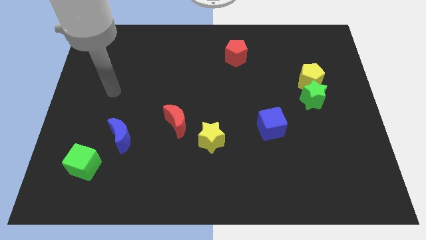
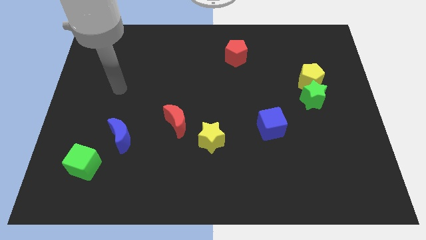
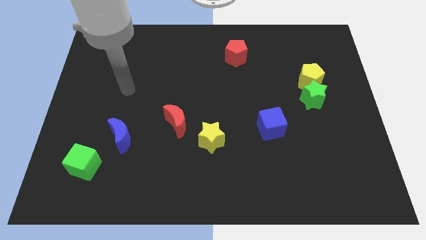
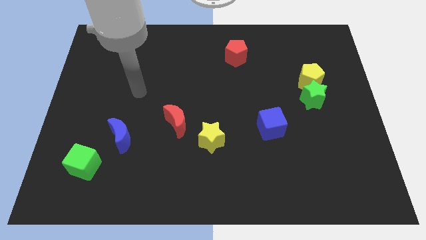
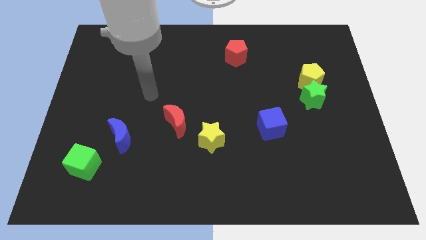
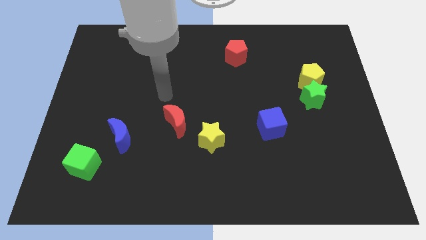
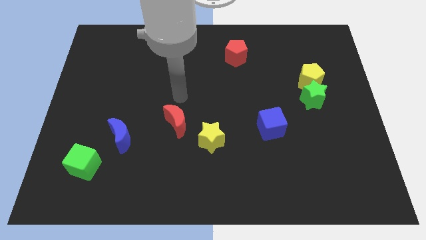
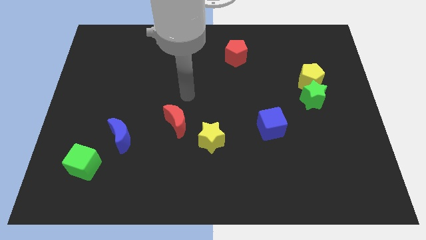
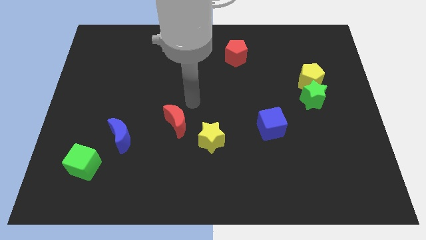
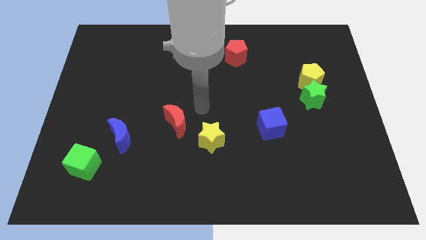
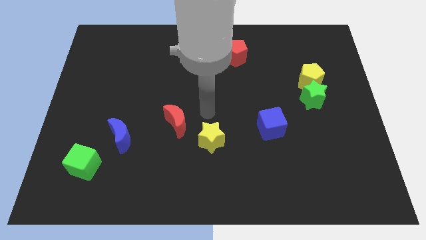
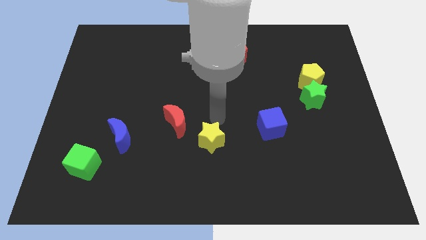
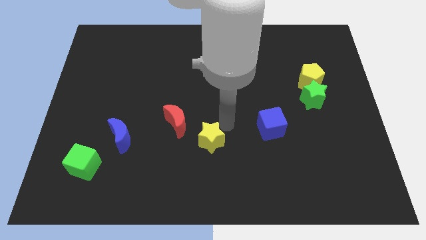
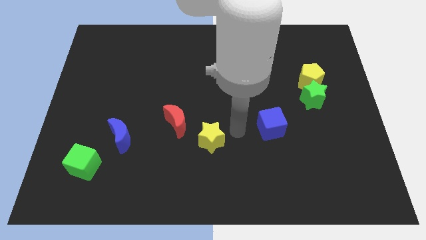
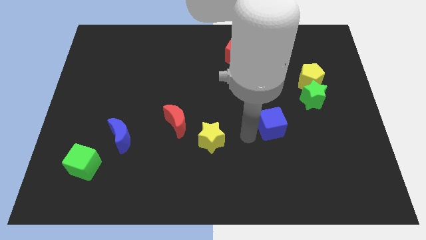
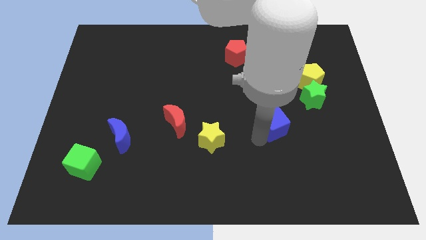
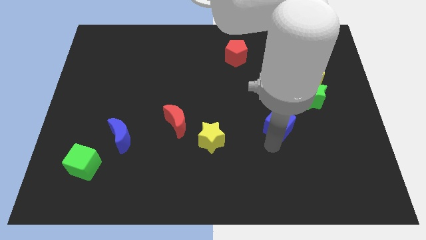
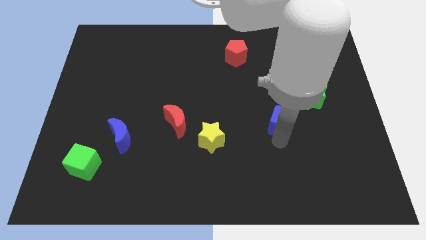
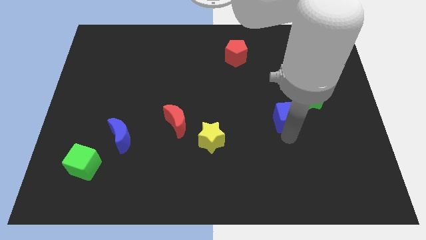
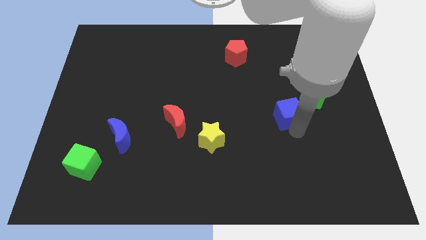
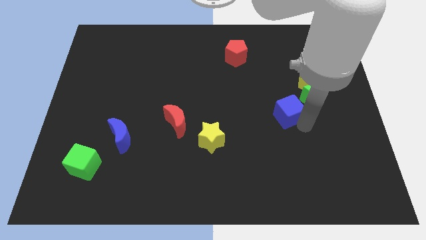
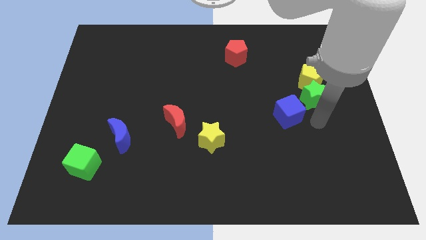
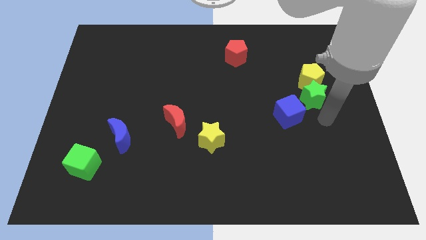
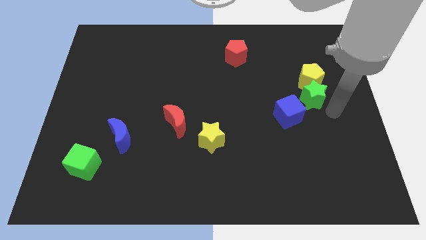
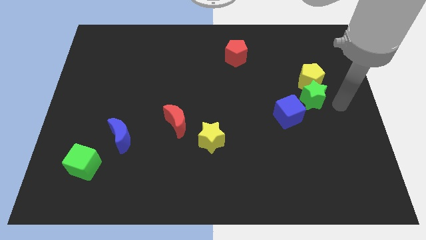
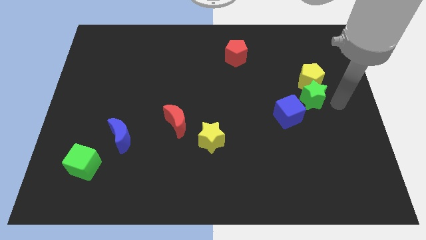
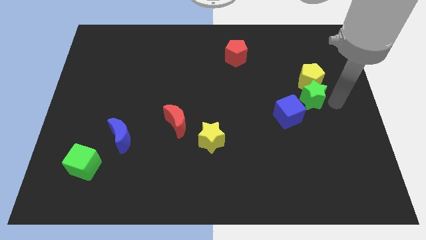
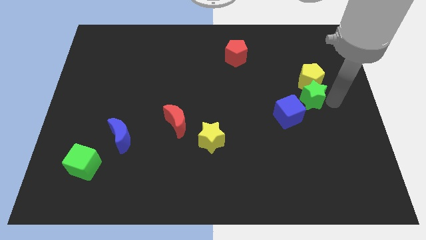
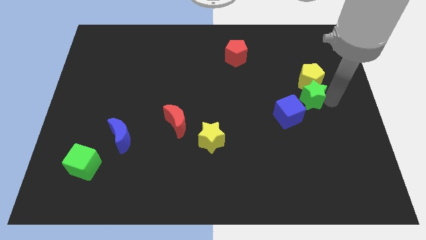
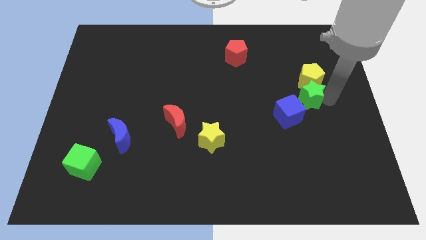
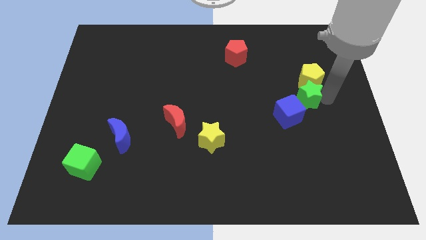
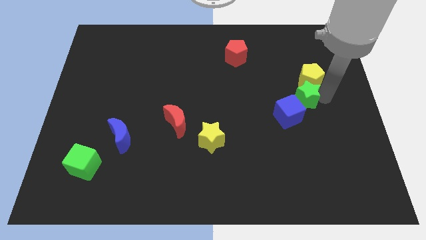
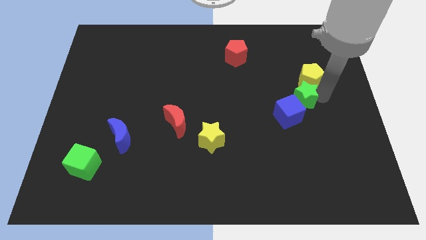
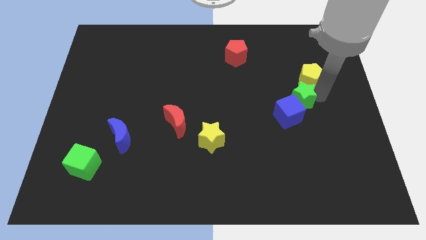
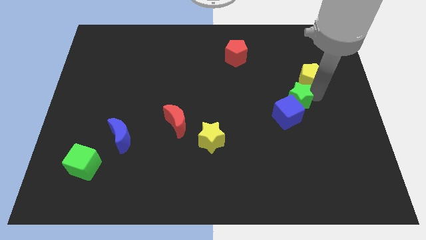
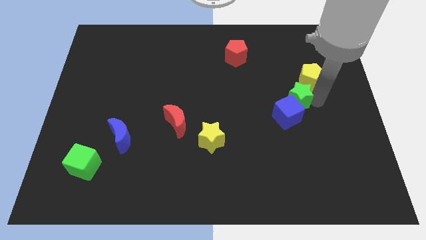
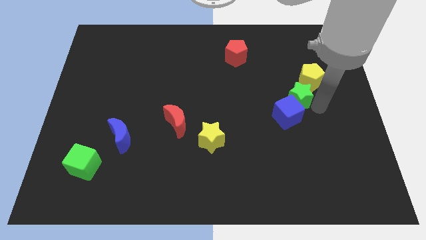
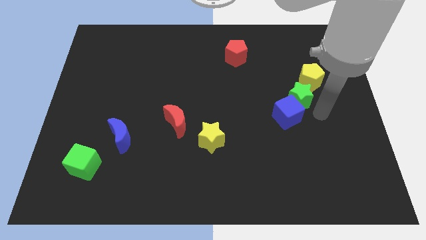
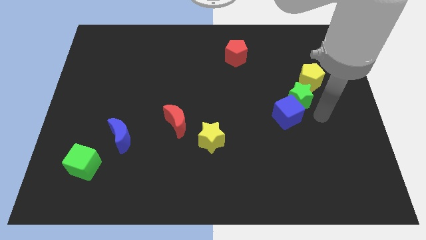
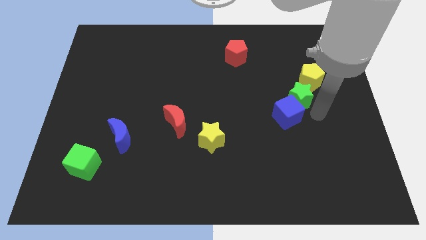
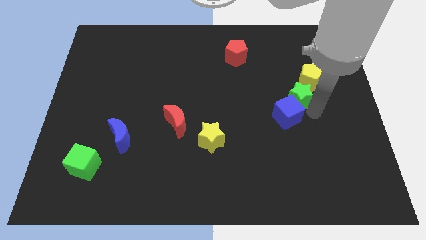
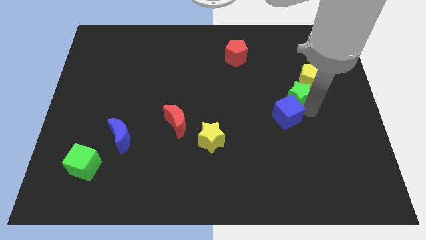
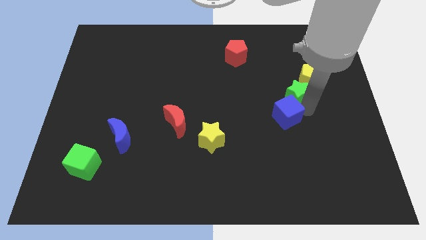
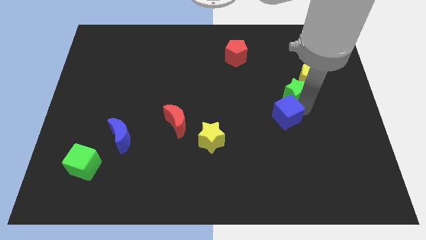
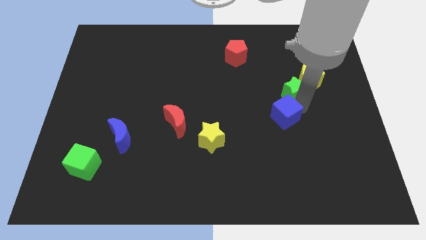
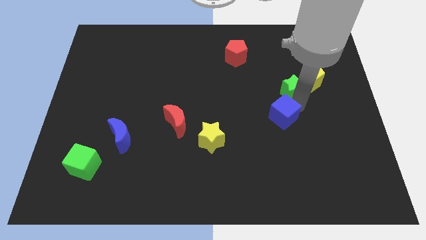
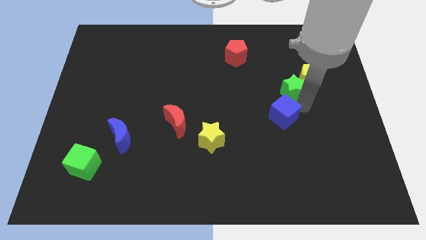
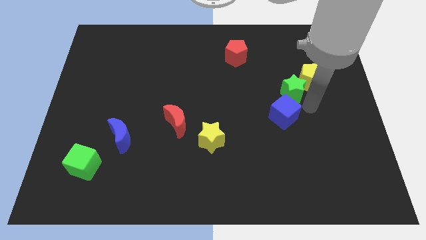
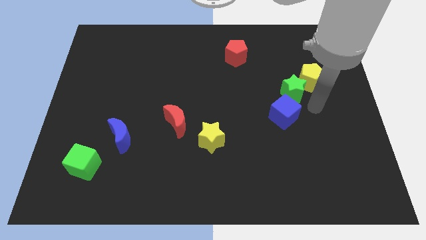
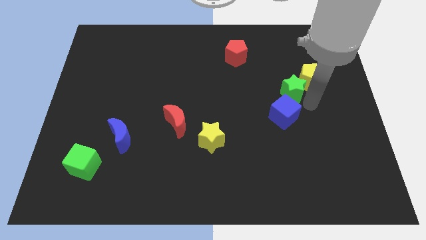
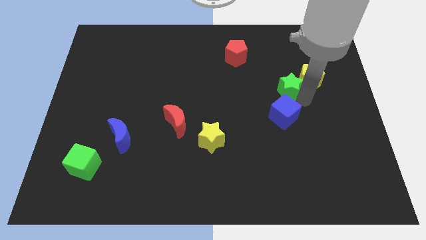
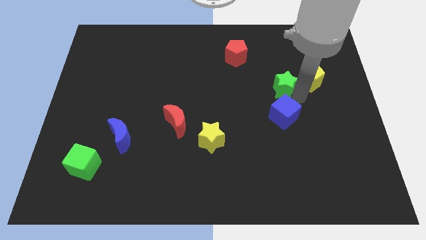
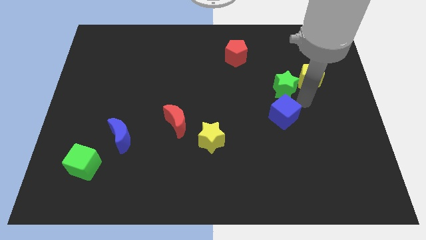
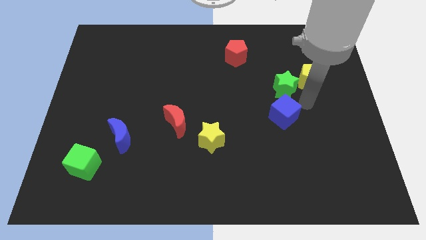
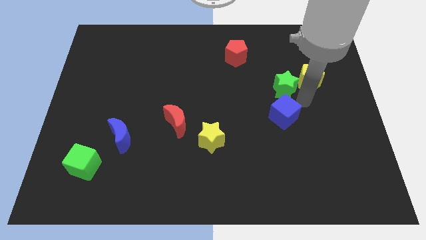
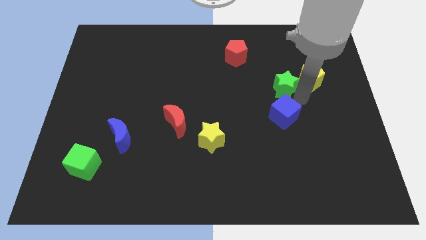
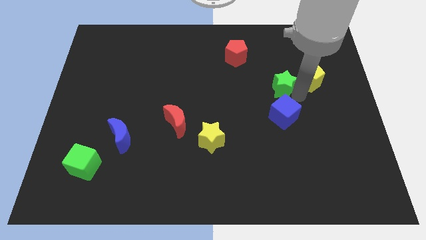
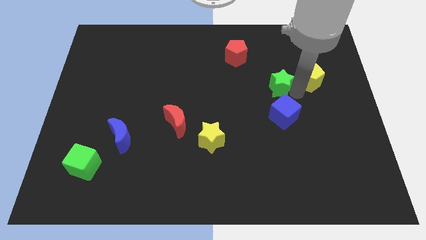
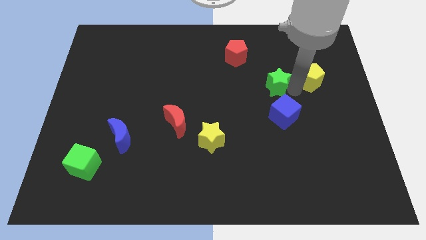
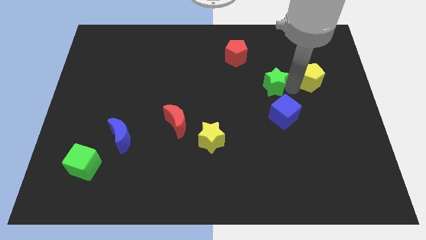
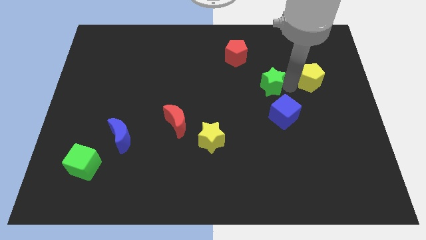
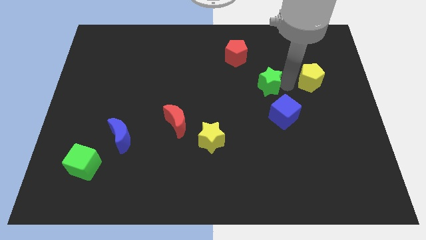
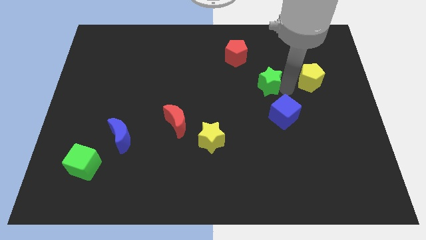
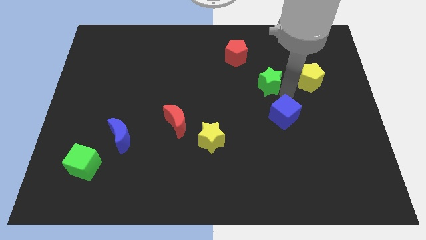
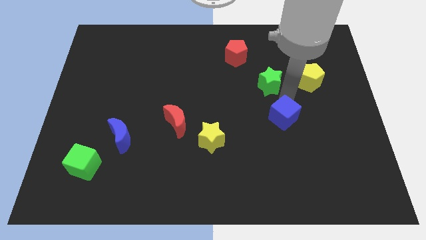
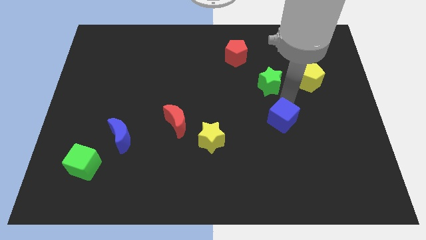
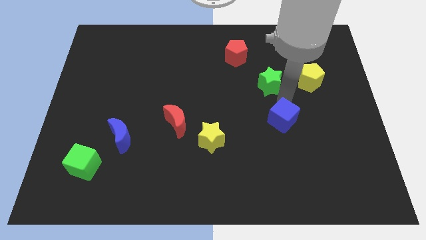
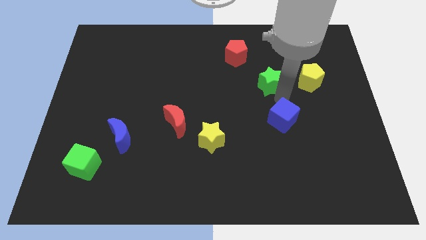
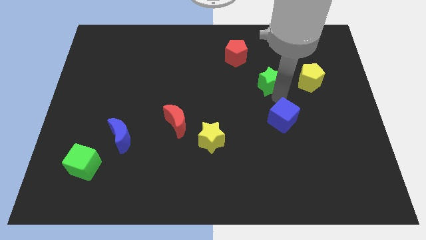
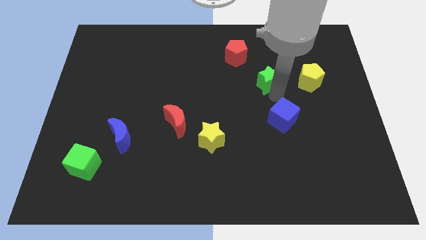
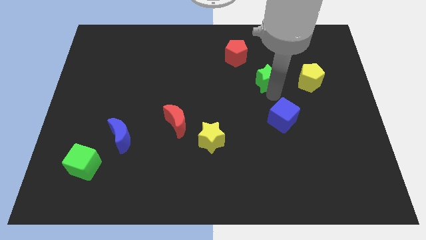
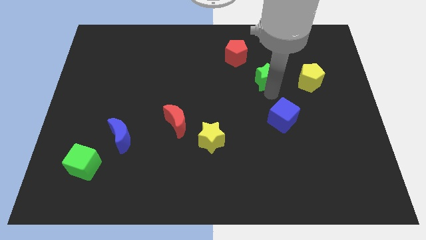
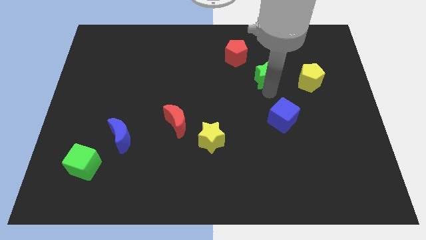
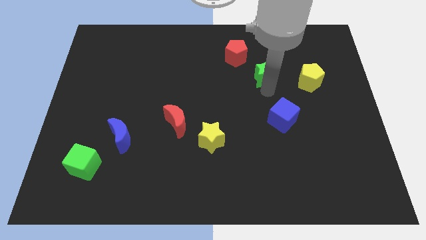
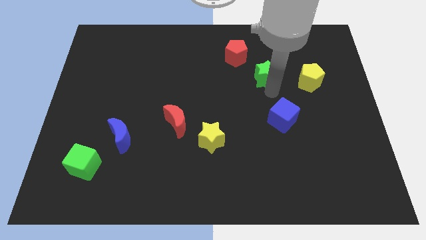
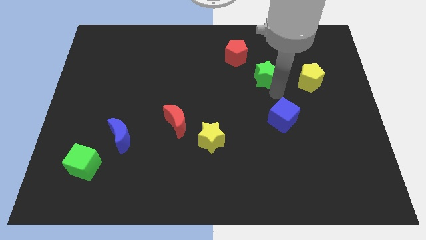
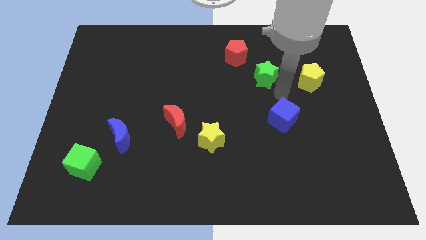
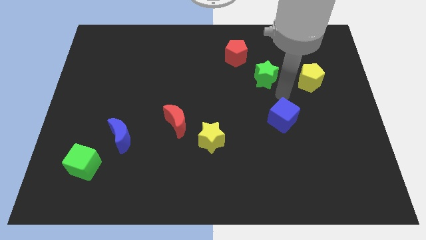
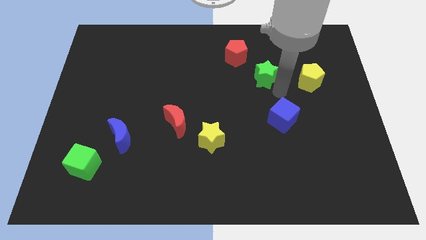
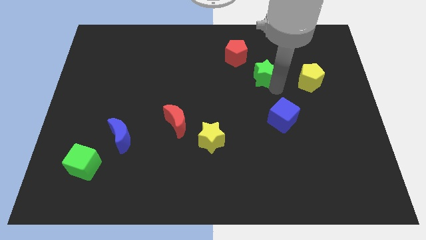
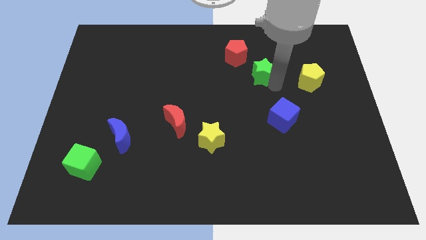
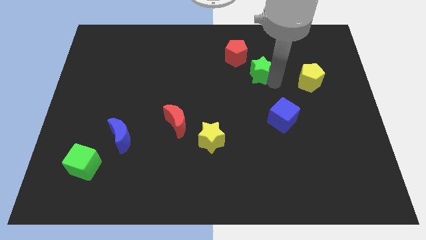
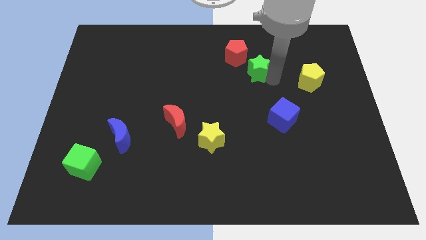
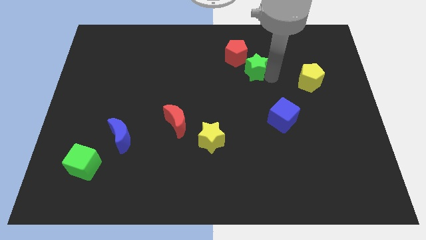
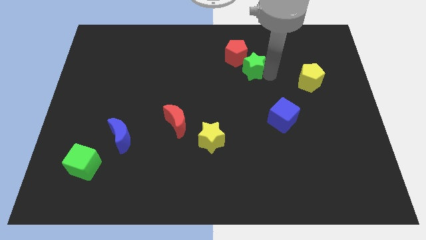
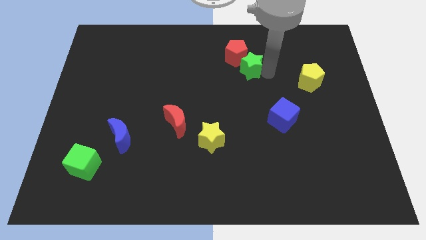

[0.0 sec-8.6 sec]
slide the green star next to the red pentagon
